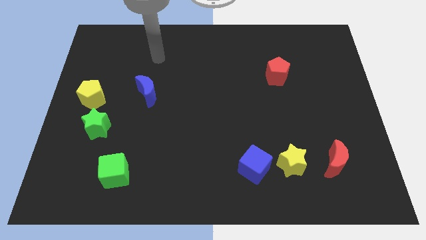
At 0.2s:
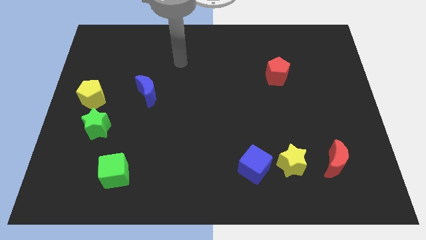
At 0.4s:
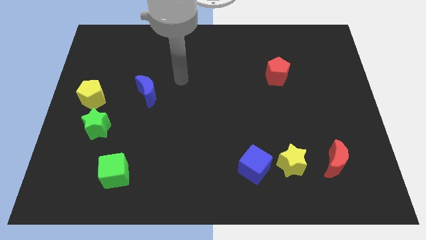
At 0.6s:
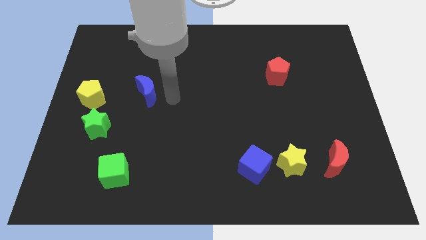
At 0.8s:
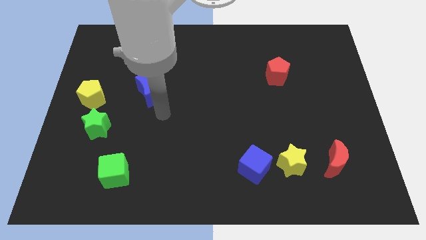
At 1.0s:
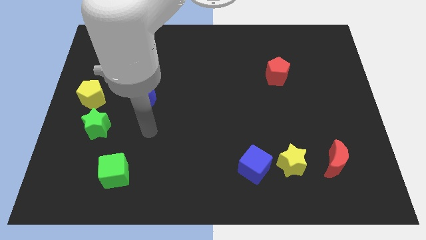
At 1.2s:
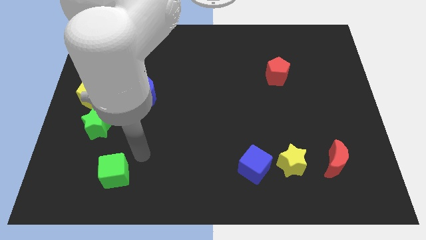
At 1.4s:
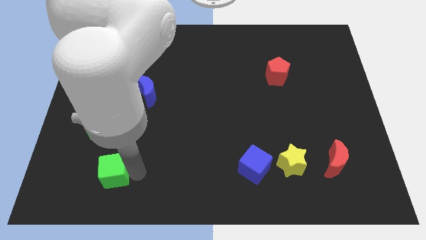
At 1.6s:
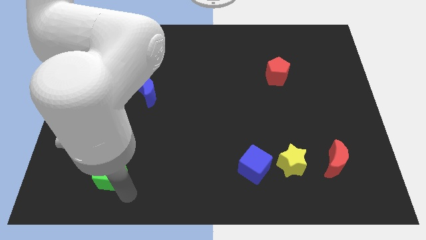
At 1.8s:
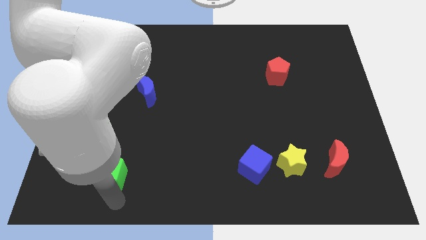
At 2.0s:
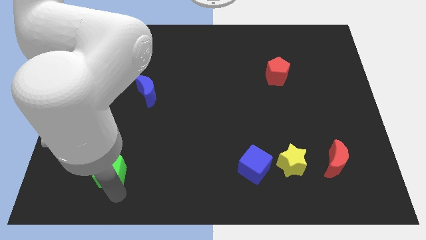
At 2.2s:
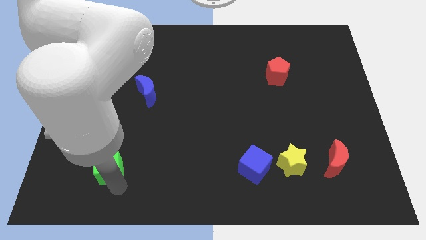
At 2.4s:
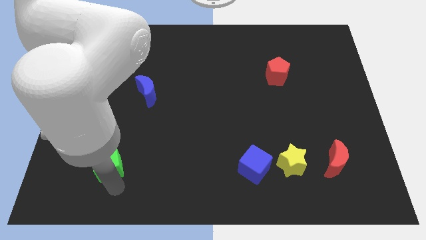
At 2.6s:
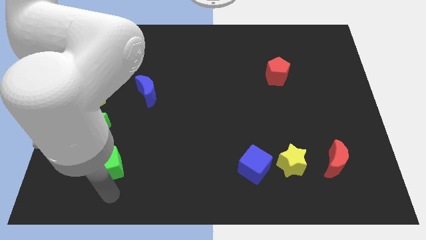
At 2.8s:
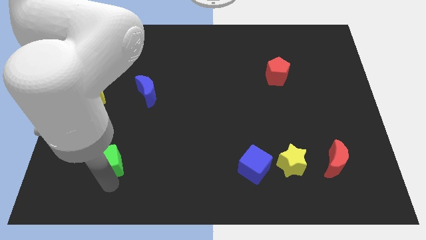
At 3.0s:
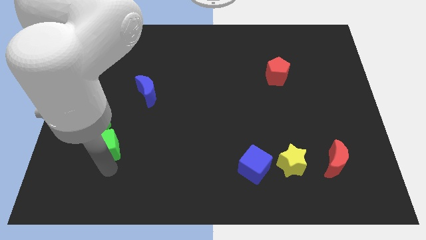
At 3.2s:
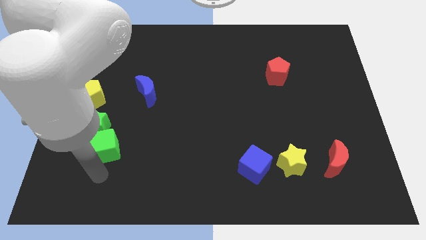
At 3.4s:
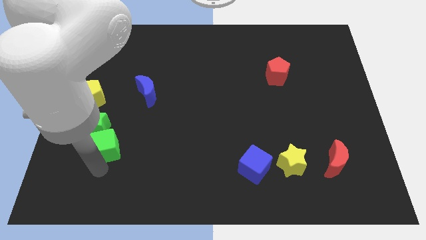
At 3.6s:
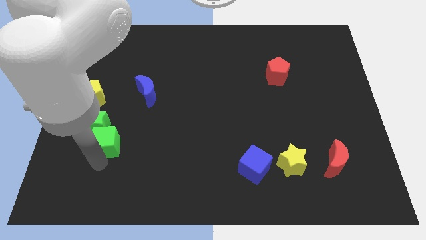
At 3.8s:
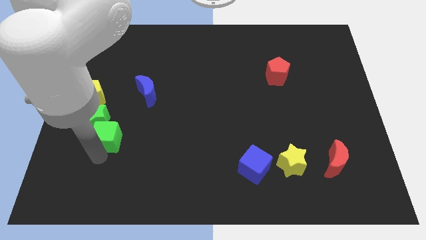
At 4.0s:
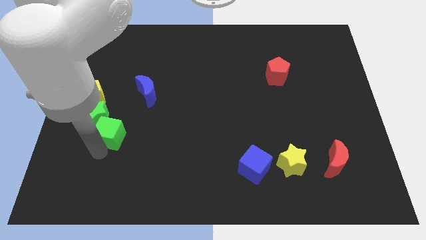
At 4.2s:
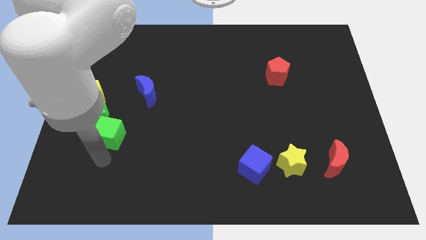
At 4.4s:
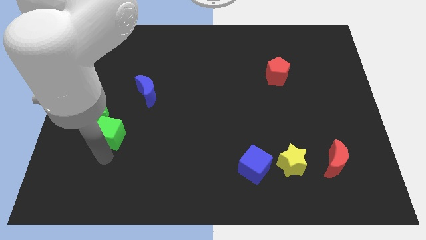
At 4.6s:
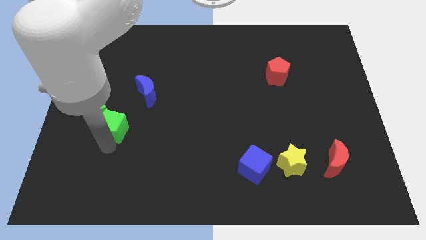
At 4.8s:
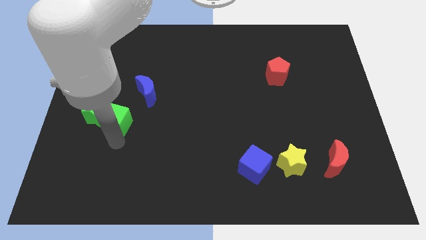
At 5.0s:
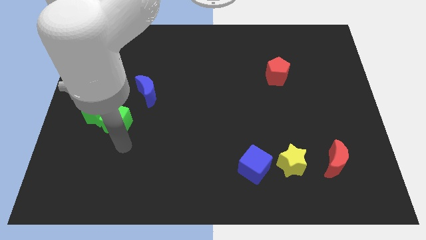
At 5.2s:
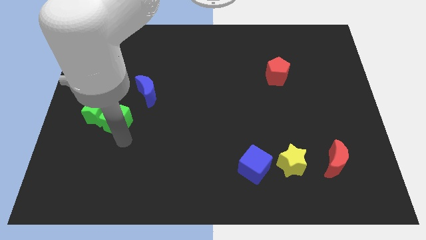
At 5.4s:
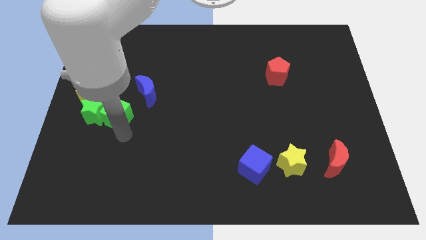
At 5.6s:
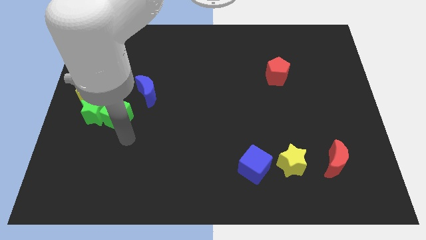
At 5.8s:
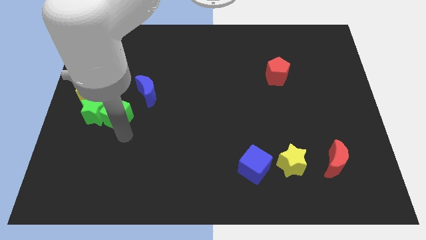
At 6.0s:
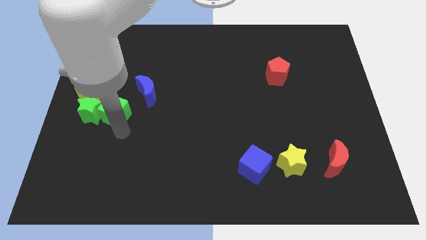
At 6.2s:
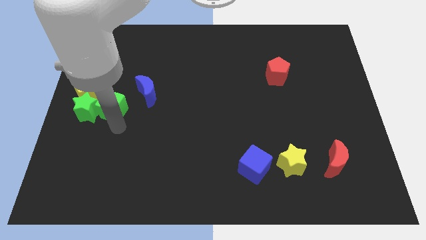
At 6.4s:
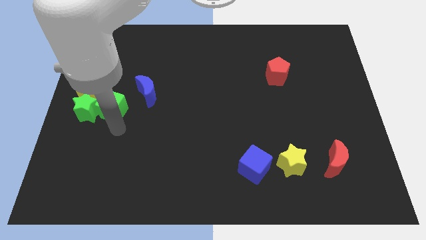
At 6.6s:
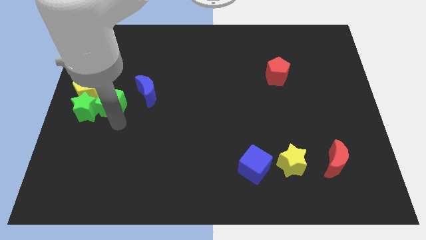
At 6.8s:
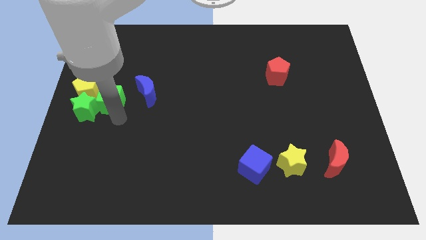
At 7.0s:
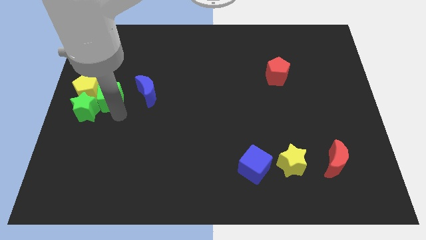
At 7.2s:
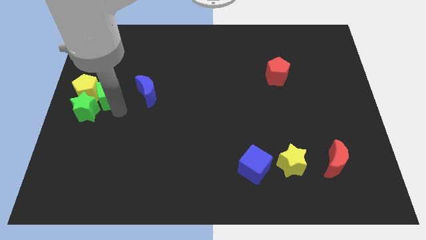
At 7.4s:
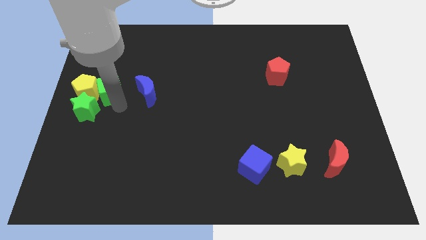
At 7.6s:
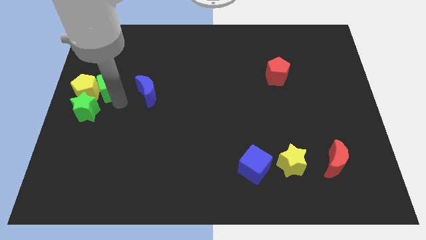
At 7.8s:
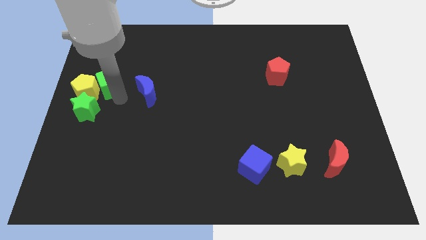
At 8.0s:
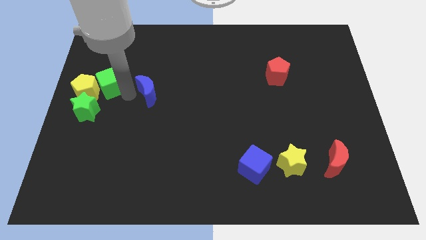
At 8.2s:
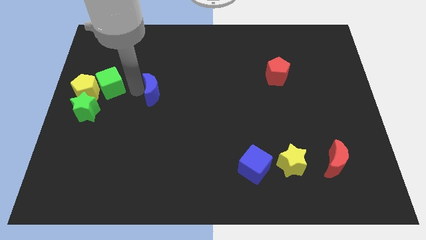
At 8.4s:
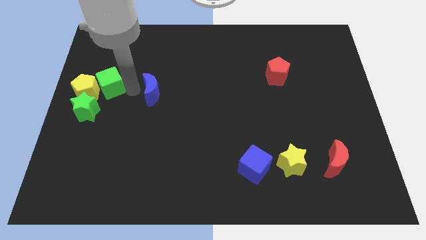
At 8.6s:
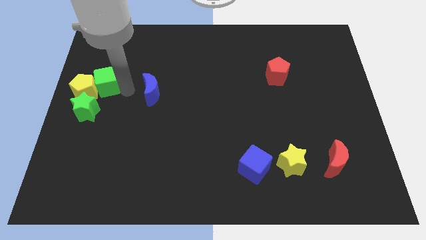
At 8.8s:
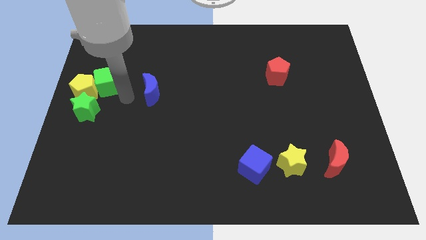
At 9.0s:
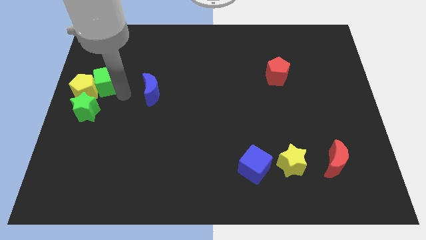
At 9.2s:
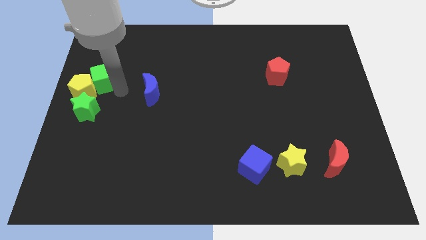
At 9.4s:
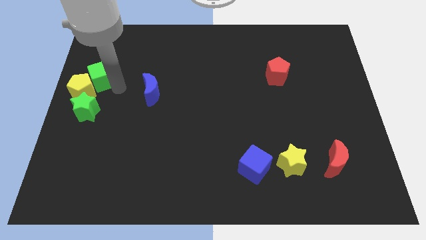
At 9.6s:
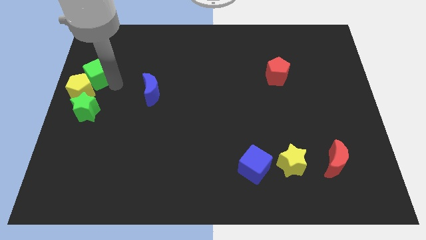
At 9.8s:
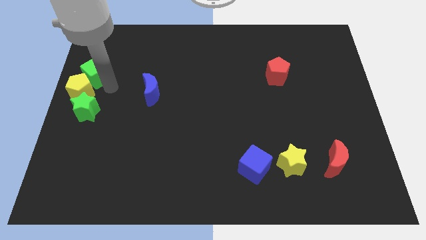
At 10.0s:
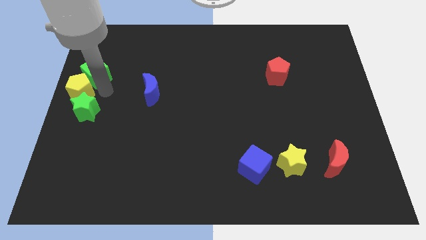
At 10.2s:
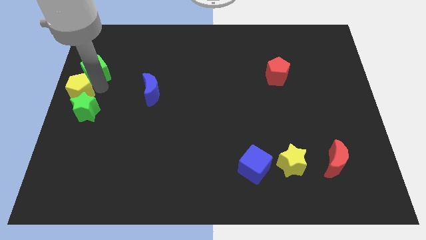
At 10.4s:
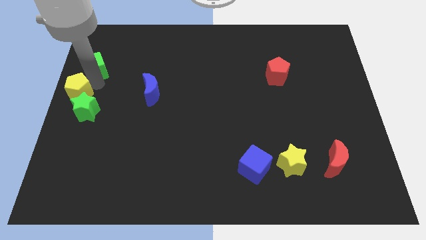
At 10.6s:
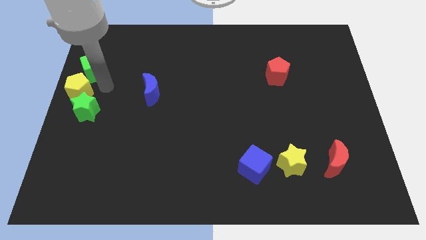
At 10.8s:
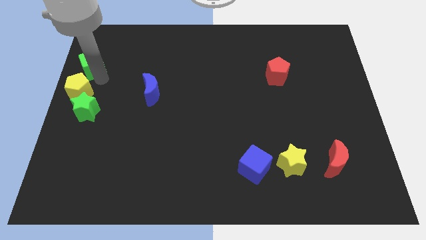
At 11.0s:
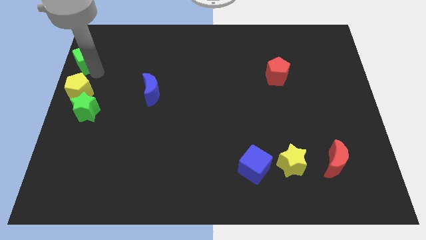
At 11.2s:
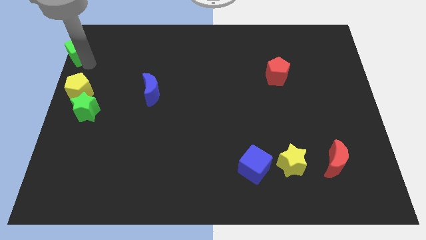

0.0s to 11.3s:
put the green cube to the top left corner

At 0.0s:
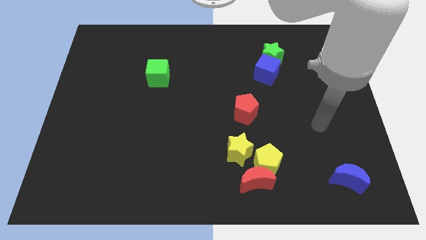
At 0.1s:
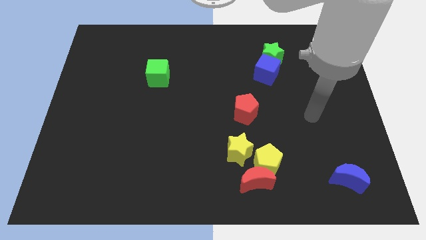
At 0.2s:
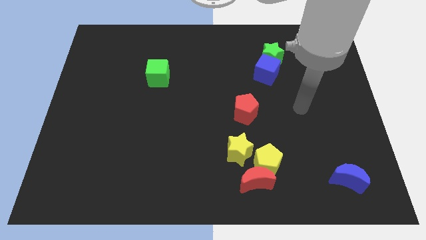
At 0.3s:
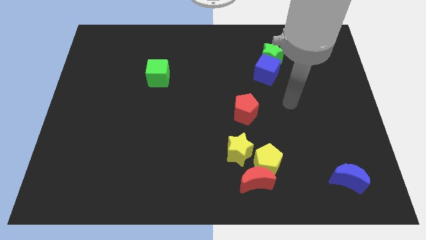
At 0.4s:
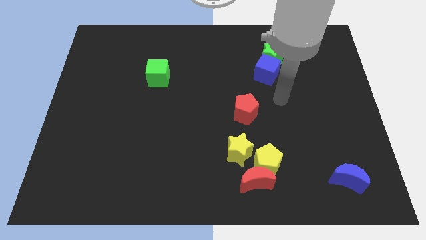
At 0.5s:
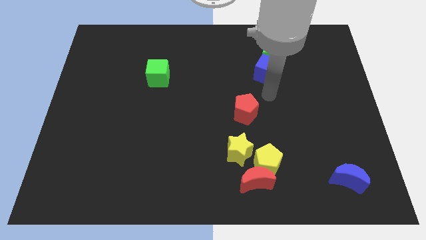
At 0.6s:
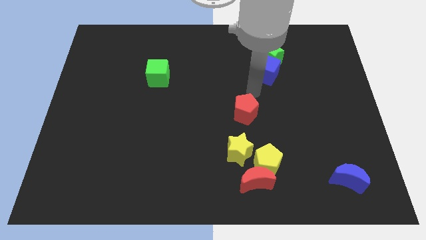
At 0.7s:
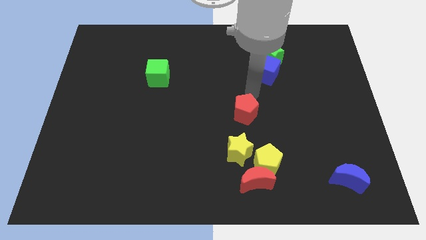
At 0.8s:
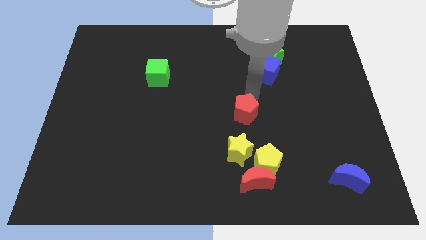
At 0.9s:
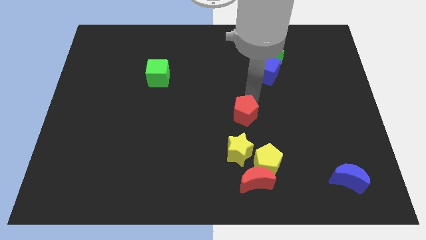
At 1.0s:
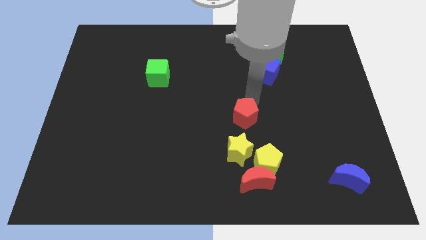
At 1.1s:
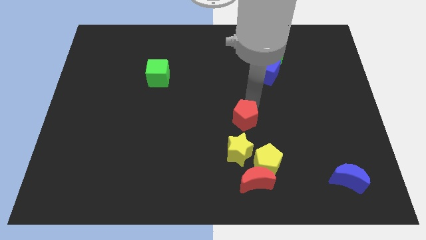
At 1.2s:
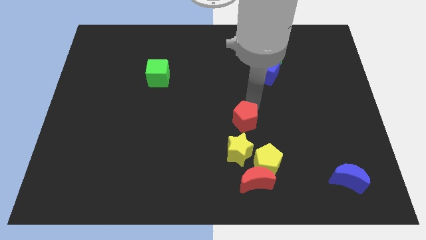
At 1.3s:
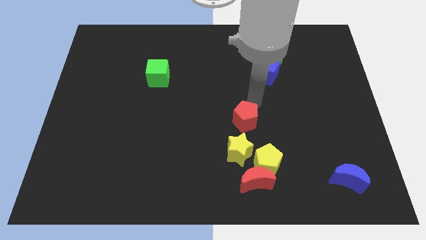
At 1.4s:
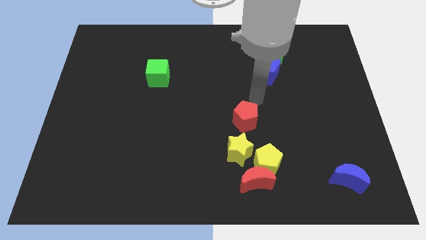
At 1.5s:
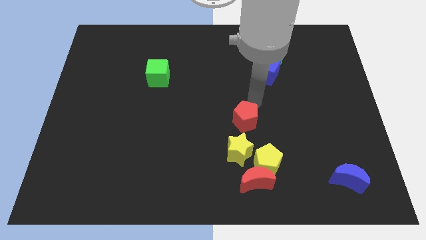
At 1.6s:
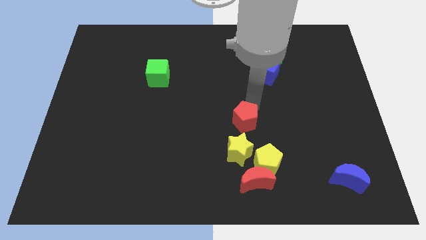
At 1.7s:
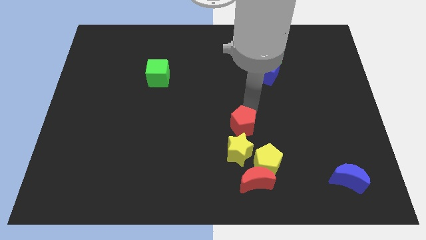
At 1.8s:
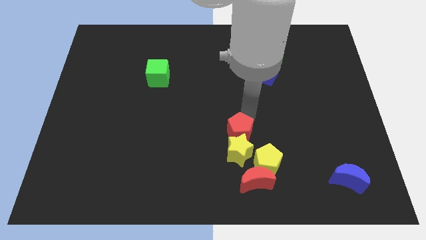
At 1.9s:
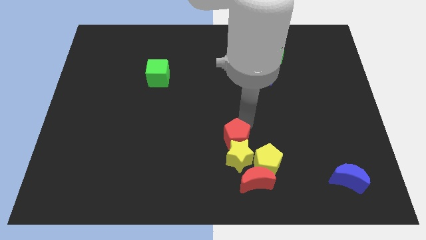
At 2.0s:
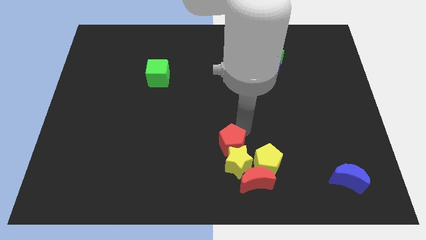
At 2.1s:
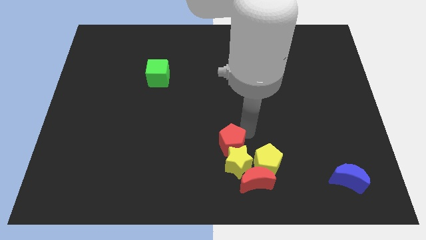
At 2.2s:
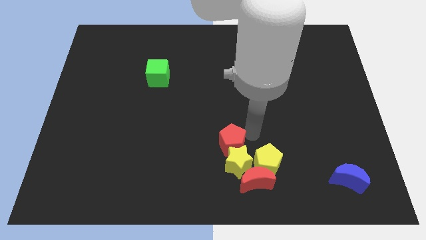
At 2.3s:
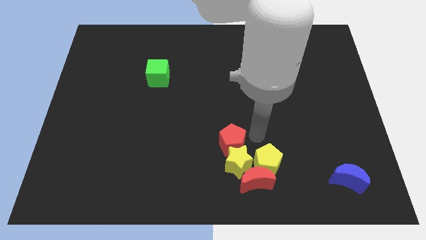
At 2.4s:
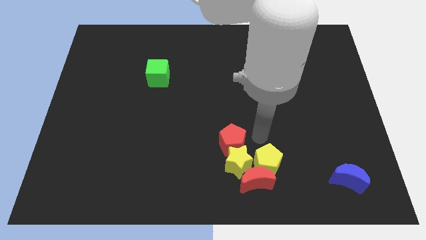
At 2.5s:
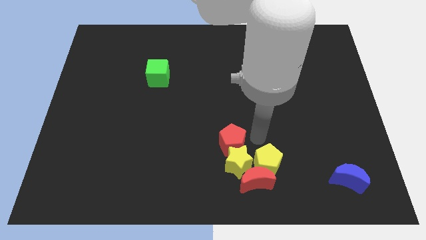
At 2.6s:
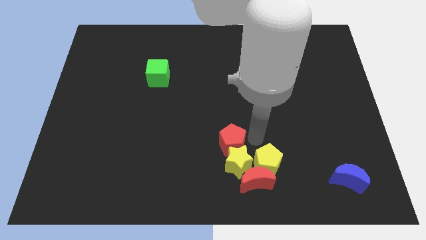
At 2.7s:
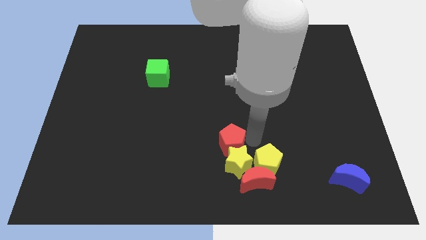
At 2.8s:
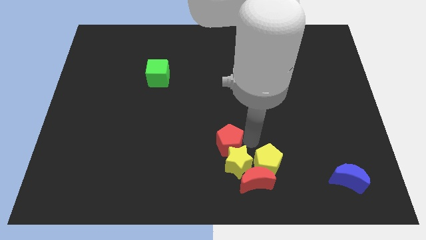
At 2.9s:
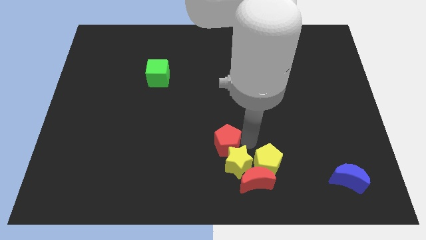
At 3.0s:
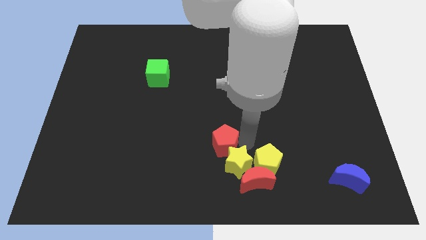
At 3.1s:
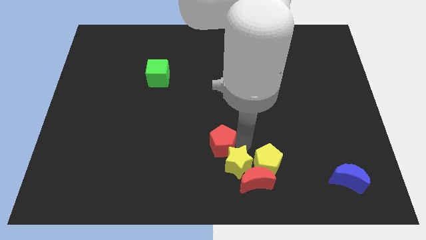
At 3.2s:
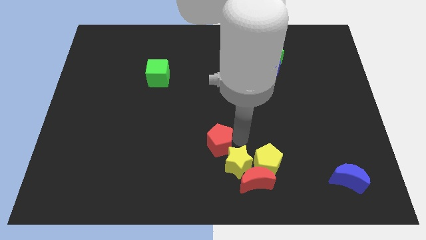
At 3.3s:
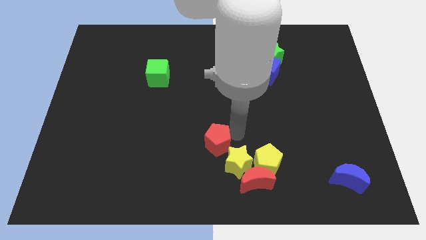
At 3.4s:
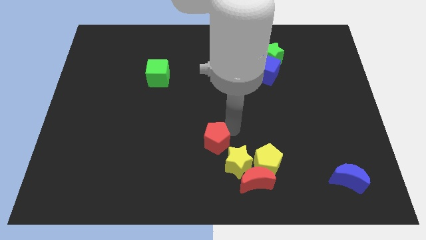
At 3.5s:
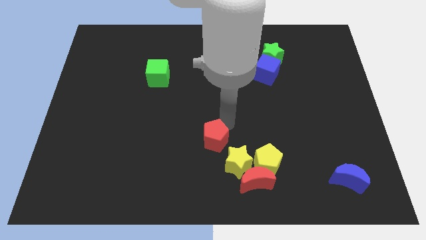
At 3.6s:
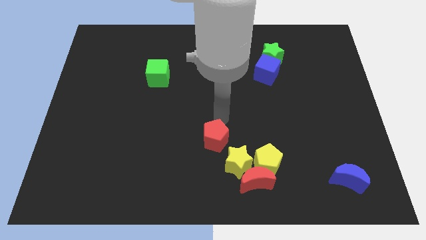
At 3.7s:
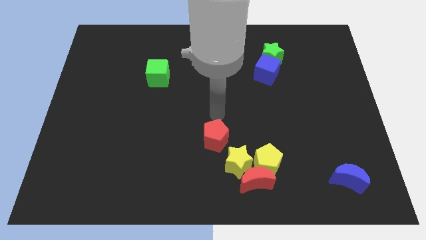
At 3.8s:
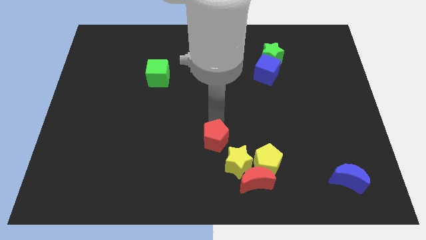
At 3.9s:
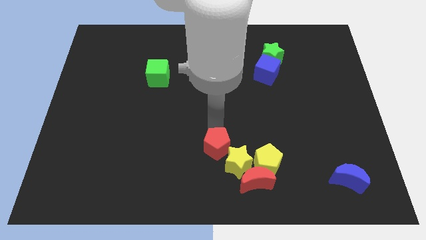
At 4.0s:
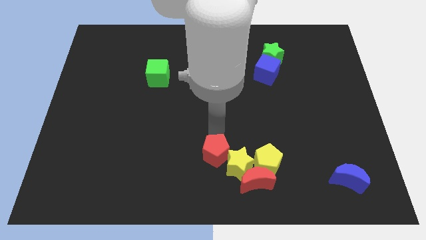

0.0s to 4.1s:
slide the red pentagon to the bottom
